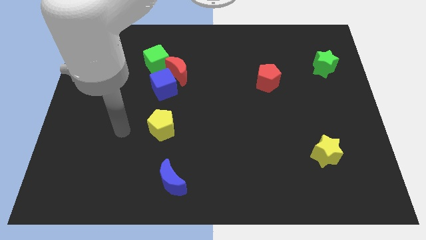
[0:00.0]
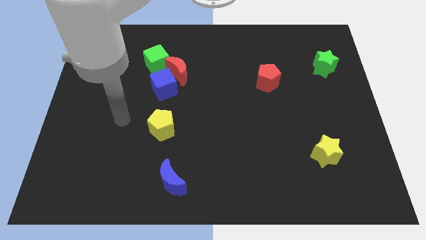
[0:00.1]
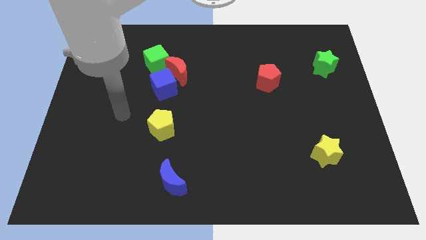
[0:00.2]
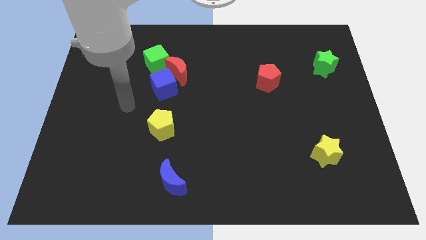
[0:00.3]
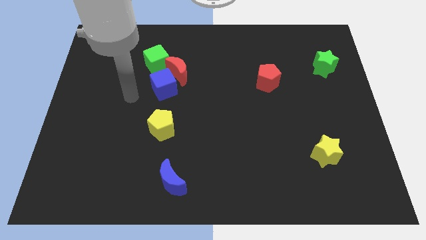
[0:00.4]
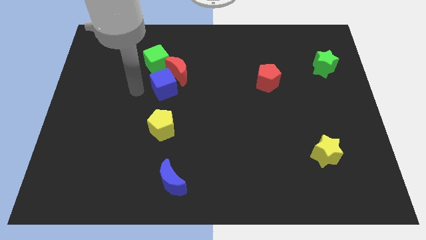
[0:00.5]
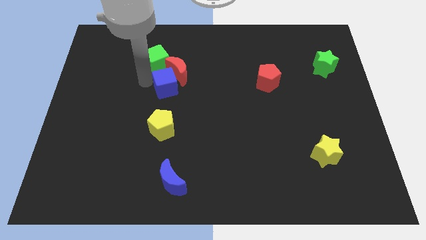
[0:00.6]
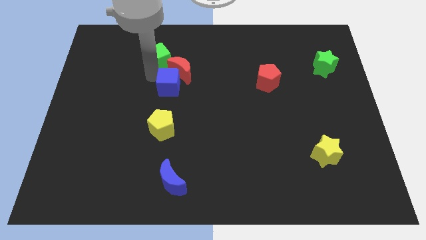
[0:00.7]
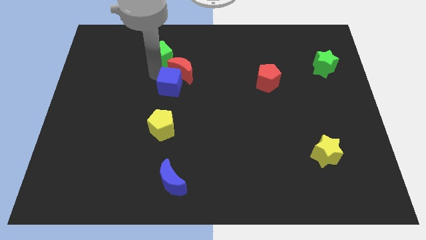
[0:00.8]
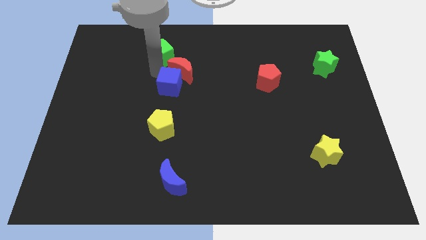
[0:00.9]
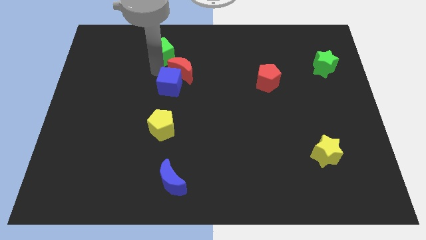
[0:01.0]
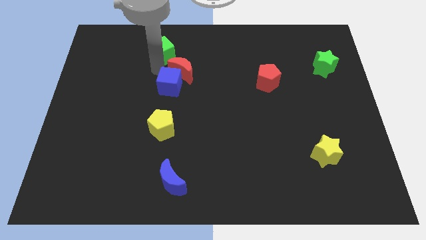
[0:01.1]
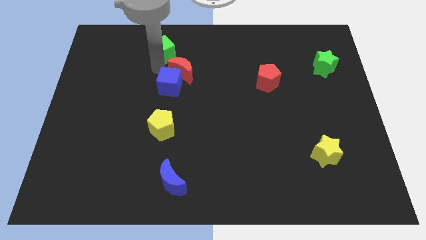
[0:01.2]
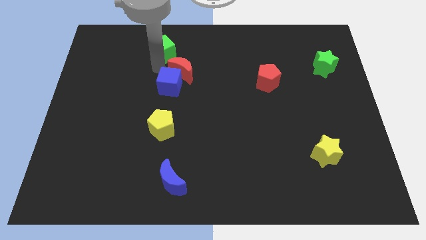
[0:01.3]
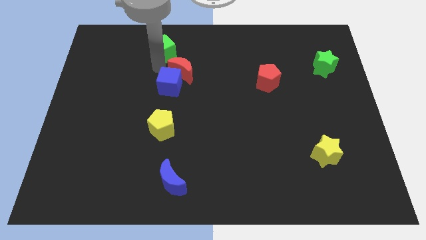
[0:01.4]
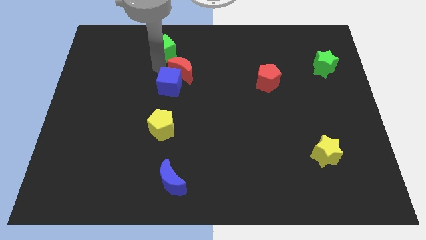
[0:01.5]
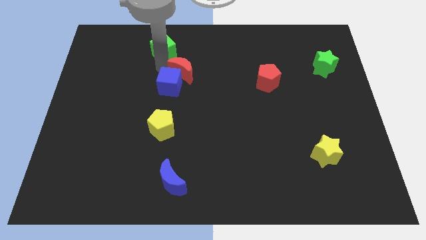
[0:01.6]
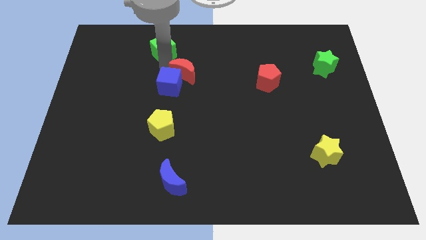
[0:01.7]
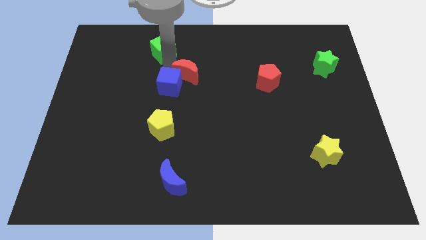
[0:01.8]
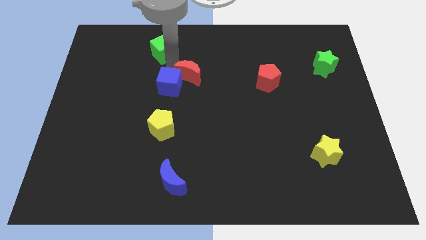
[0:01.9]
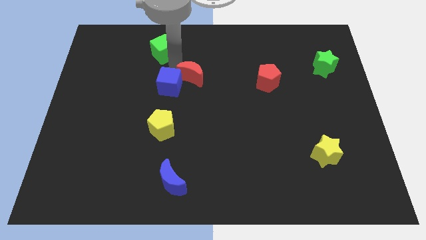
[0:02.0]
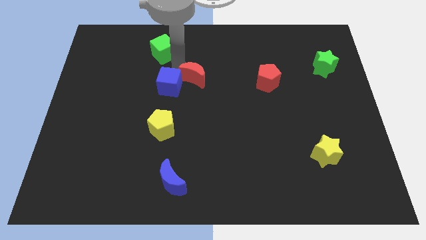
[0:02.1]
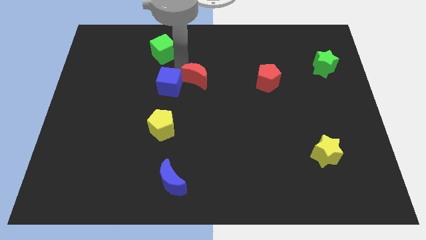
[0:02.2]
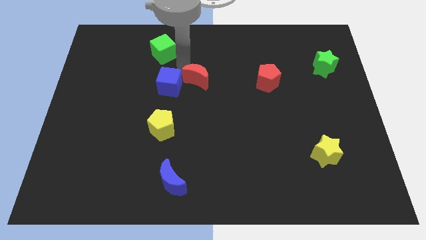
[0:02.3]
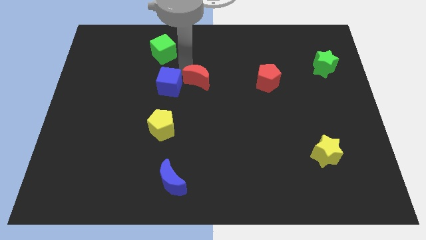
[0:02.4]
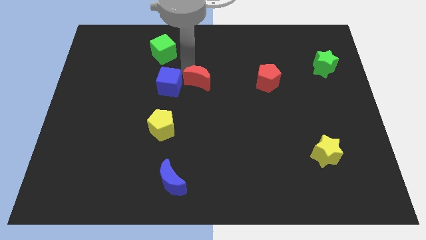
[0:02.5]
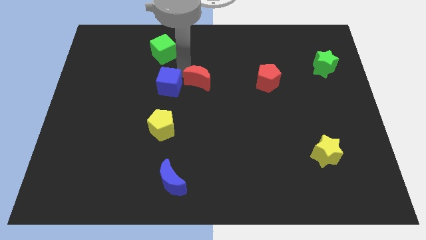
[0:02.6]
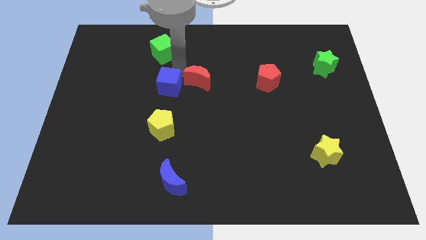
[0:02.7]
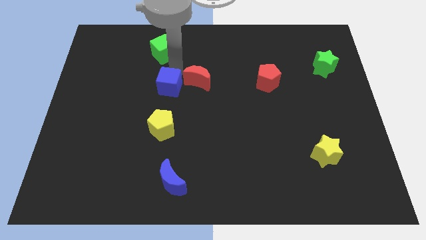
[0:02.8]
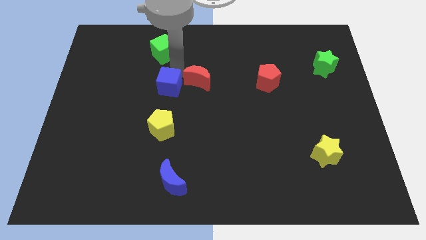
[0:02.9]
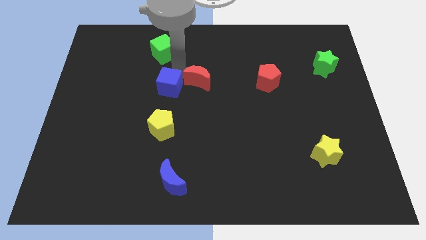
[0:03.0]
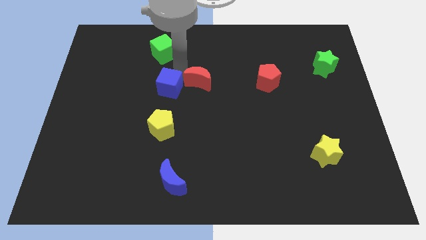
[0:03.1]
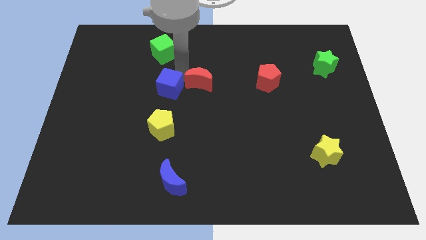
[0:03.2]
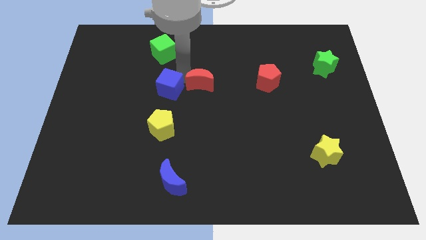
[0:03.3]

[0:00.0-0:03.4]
move the red moon away from the blue cube and green cube

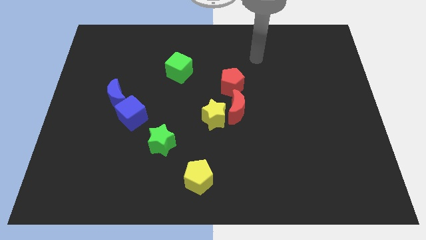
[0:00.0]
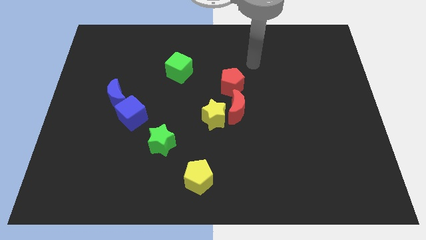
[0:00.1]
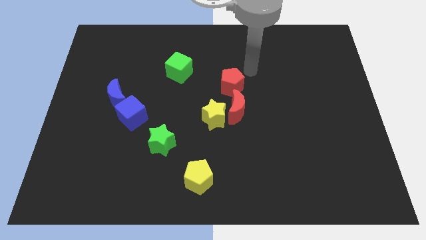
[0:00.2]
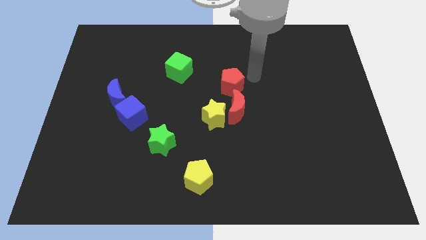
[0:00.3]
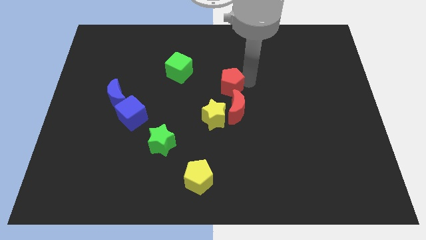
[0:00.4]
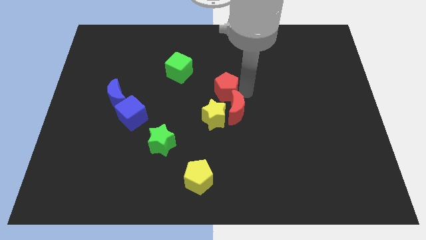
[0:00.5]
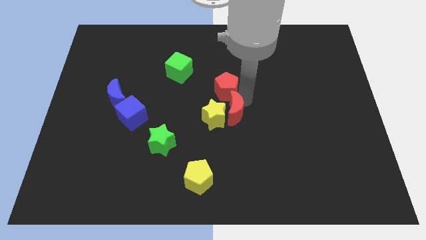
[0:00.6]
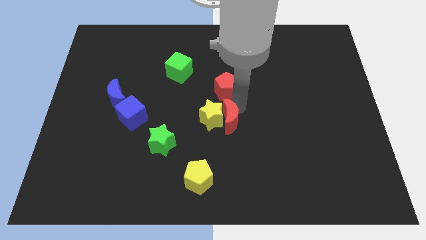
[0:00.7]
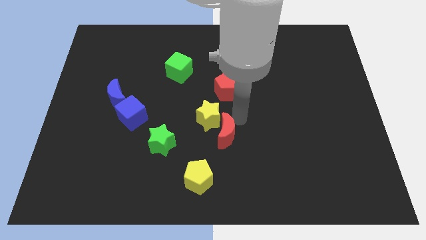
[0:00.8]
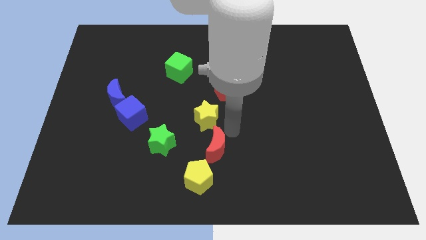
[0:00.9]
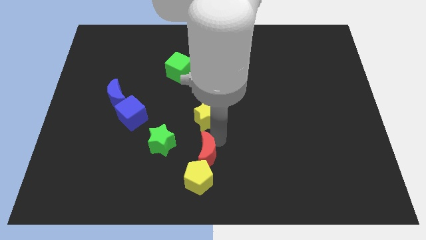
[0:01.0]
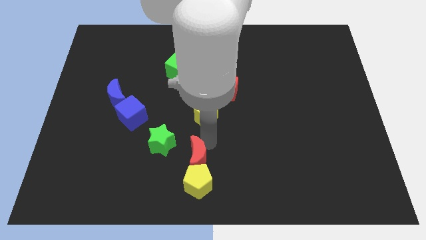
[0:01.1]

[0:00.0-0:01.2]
separate the yellow star from the red moon

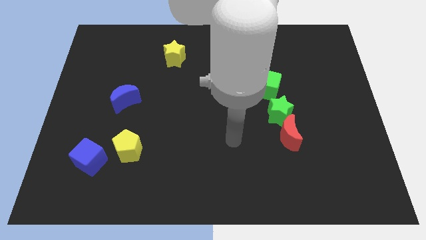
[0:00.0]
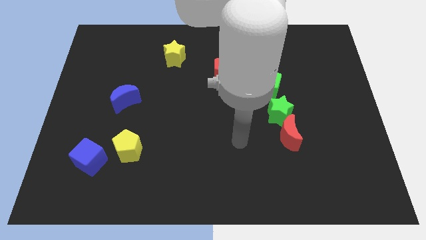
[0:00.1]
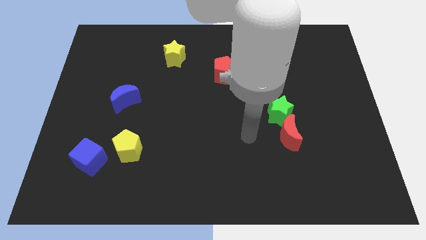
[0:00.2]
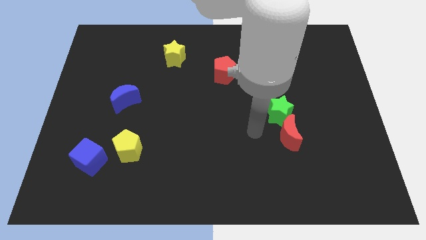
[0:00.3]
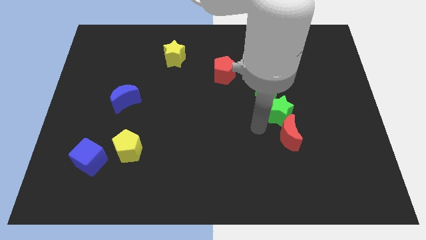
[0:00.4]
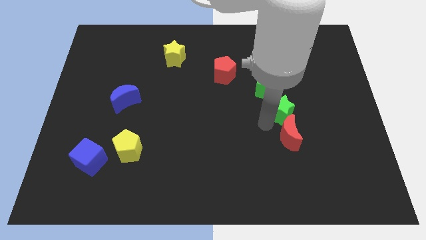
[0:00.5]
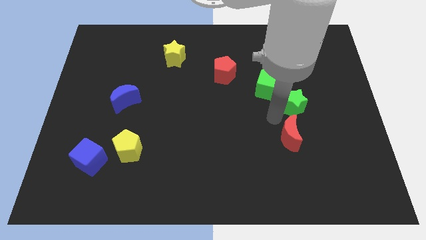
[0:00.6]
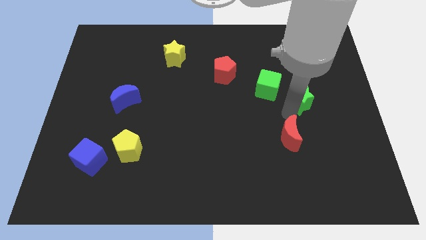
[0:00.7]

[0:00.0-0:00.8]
pull the red moon apart from the green star

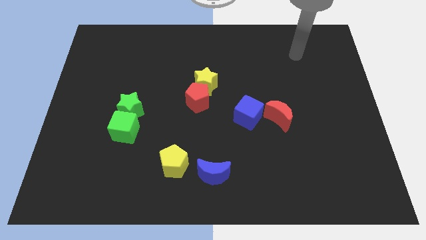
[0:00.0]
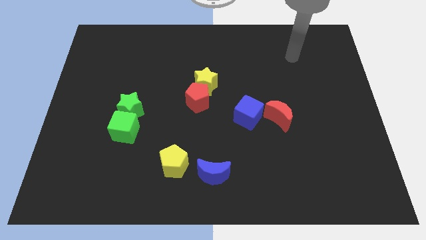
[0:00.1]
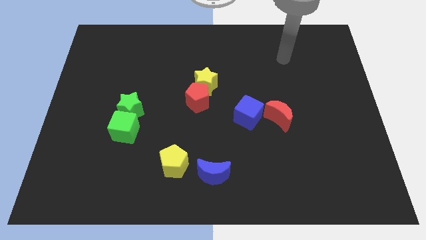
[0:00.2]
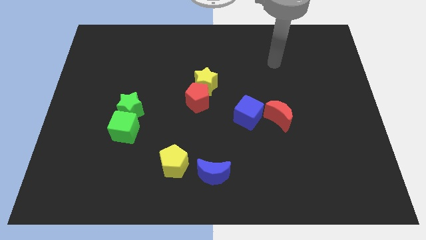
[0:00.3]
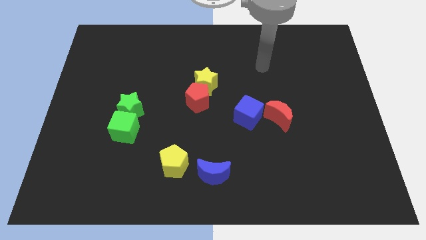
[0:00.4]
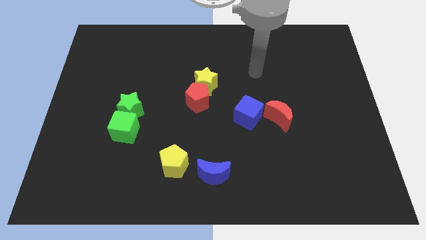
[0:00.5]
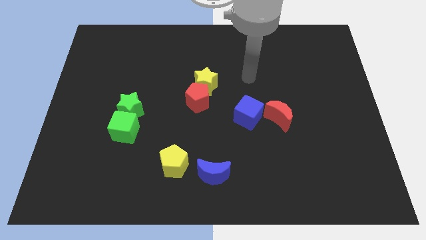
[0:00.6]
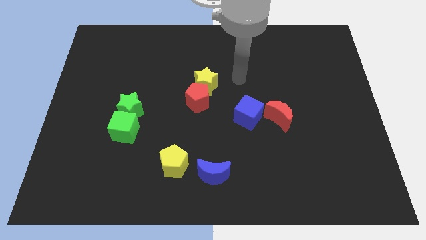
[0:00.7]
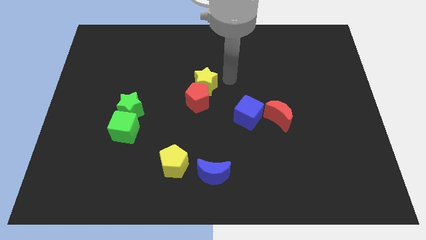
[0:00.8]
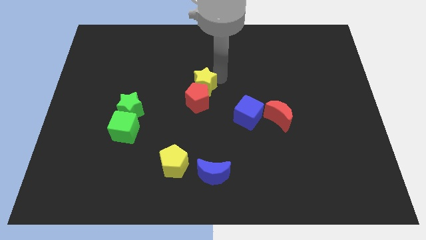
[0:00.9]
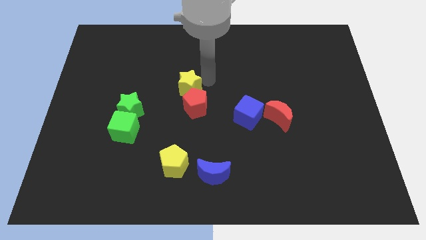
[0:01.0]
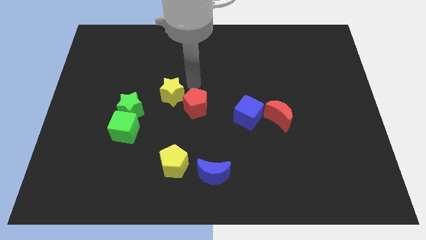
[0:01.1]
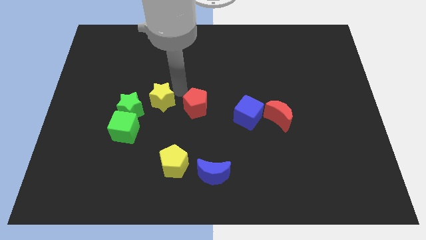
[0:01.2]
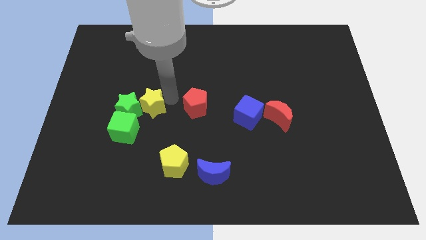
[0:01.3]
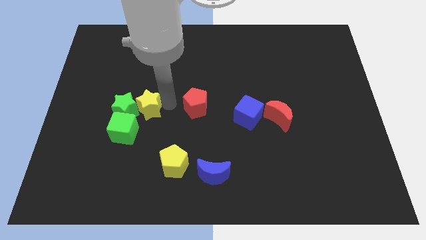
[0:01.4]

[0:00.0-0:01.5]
separate the red pentagon from the yellow star

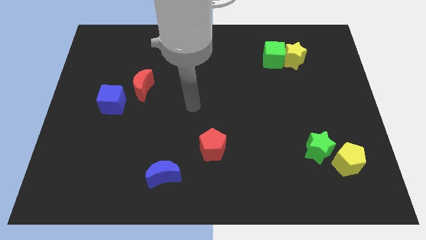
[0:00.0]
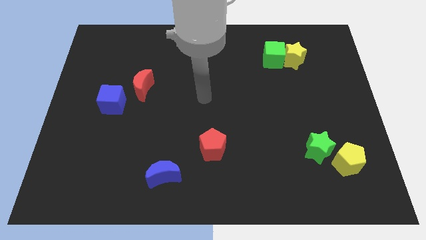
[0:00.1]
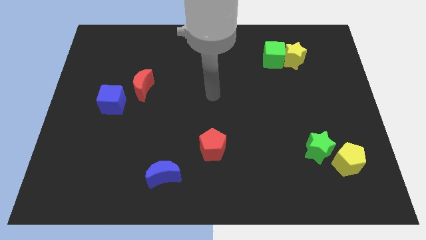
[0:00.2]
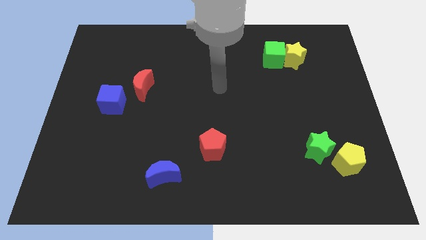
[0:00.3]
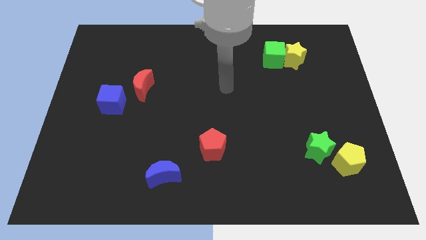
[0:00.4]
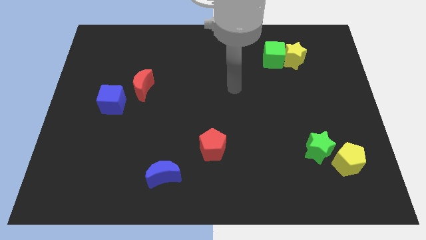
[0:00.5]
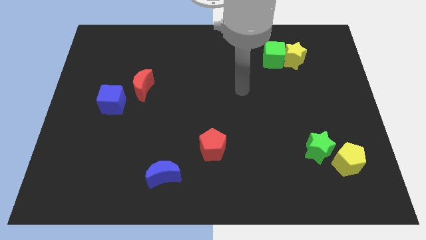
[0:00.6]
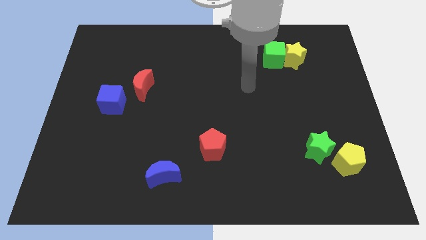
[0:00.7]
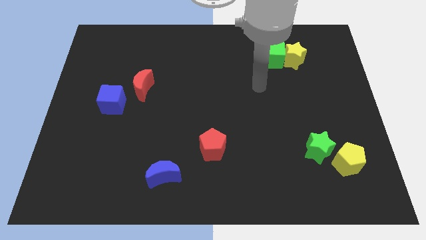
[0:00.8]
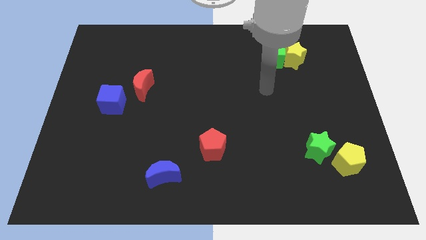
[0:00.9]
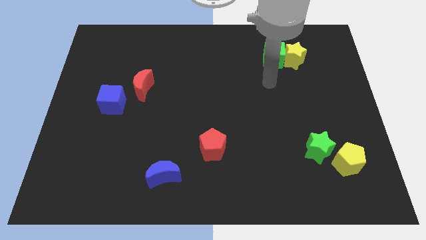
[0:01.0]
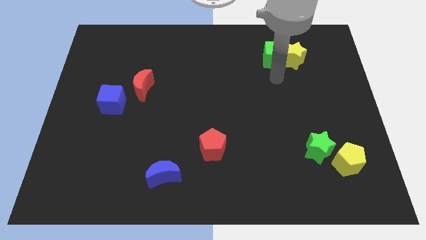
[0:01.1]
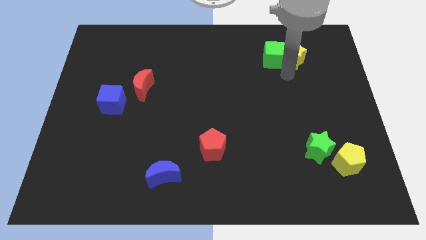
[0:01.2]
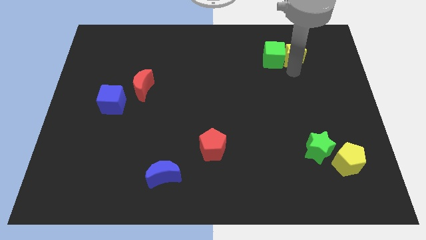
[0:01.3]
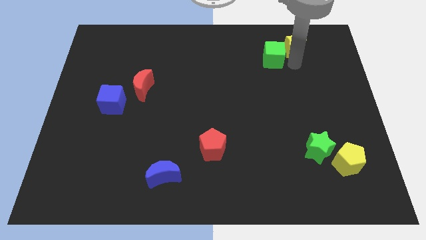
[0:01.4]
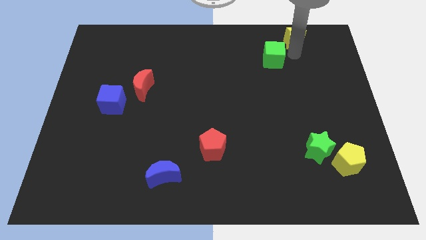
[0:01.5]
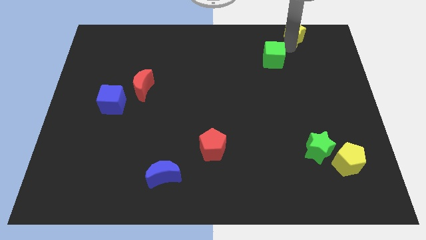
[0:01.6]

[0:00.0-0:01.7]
separate the green cube from the yellow star

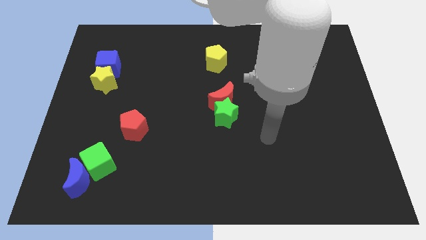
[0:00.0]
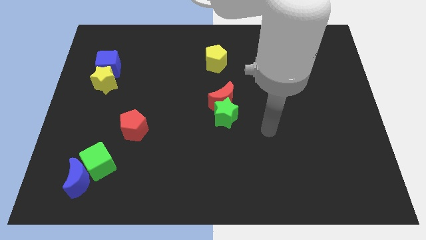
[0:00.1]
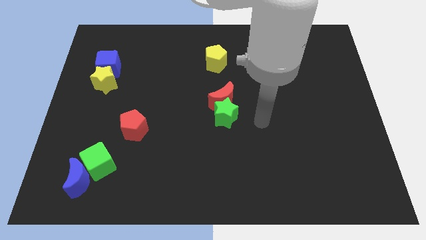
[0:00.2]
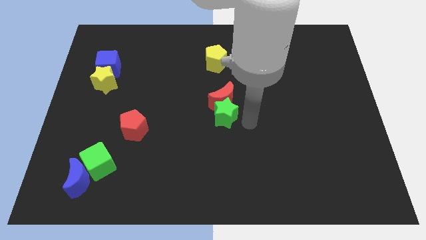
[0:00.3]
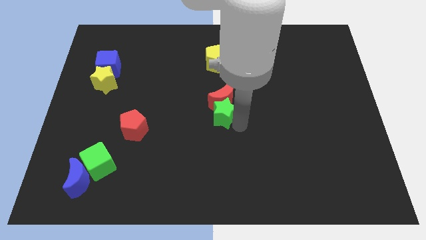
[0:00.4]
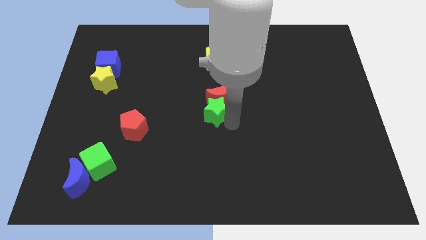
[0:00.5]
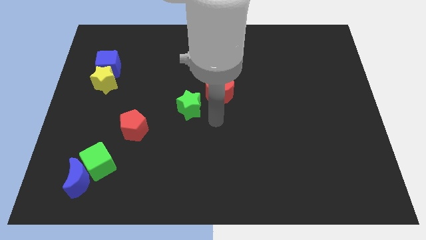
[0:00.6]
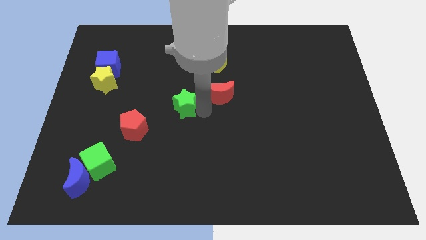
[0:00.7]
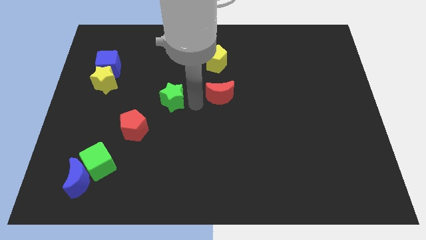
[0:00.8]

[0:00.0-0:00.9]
move the red moon away from the green star
